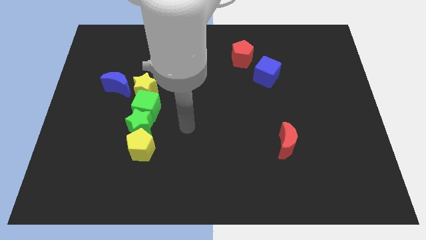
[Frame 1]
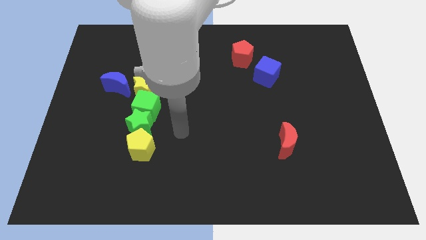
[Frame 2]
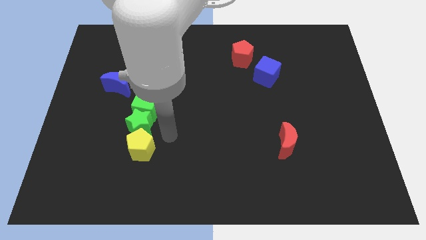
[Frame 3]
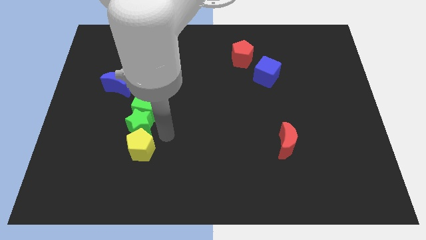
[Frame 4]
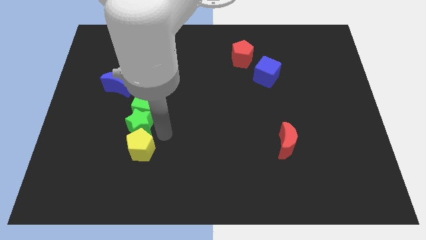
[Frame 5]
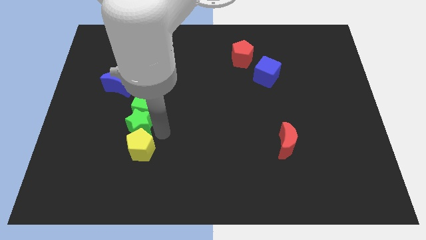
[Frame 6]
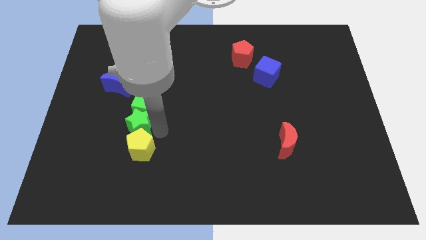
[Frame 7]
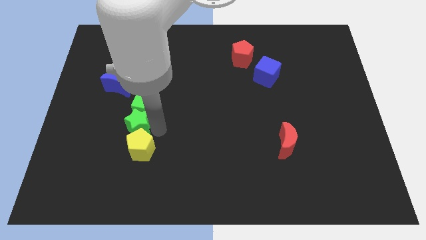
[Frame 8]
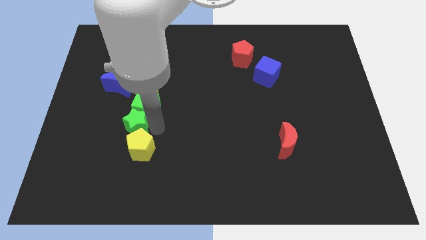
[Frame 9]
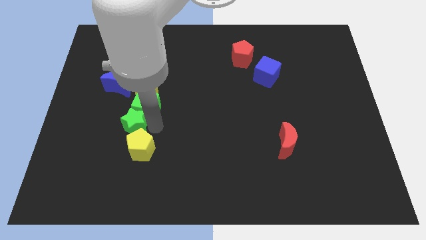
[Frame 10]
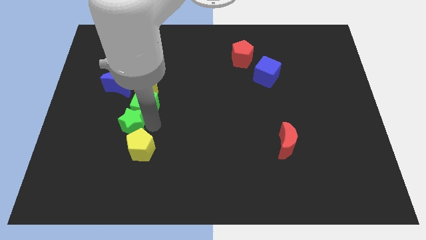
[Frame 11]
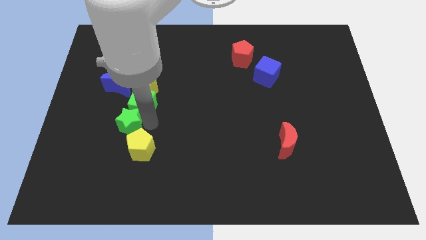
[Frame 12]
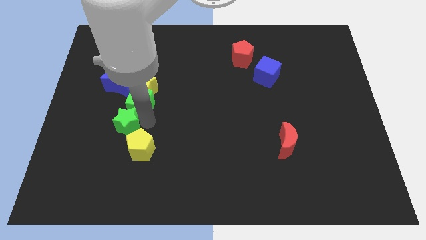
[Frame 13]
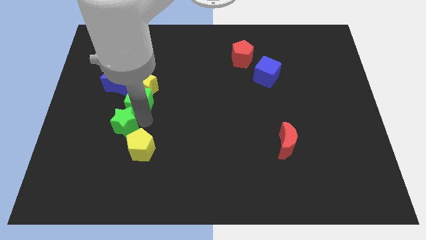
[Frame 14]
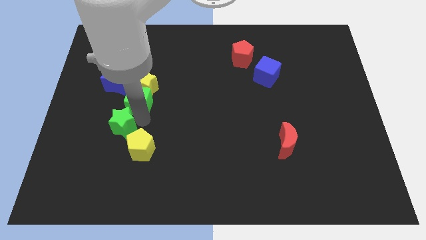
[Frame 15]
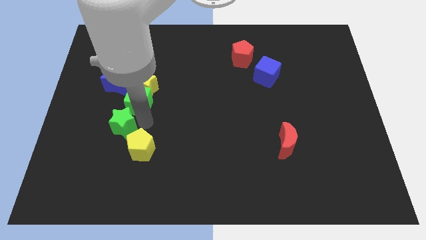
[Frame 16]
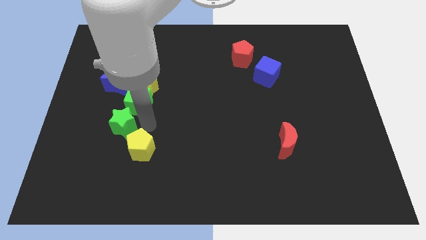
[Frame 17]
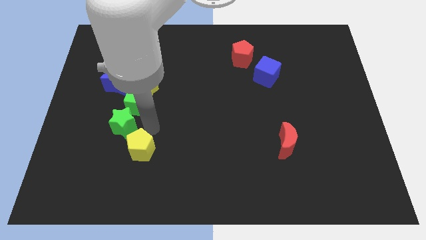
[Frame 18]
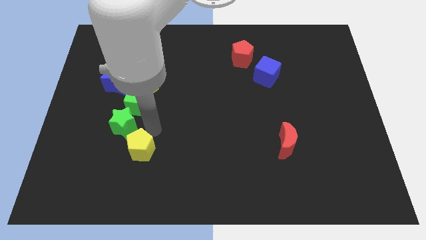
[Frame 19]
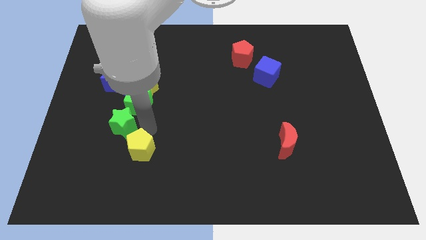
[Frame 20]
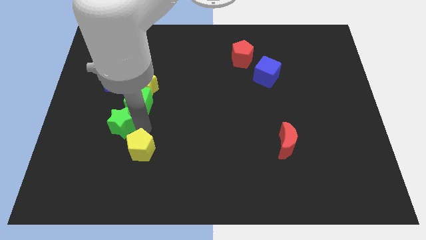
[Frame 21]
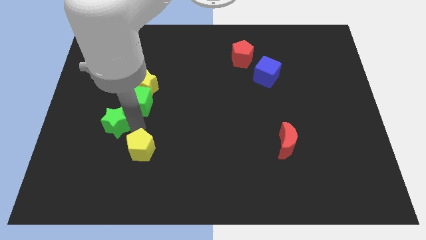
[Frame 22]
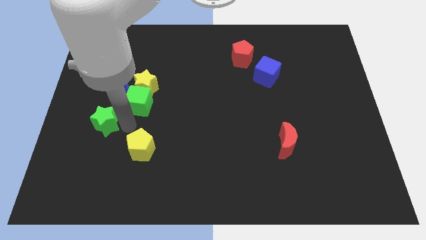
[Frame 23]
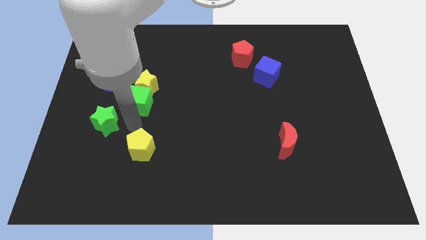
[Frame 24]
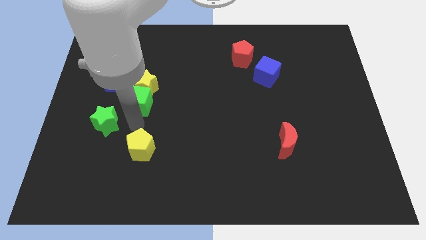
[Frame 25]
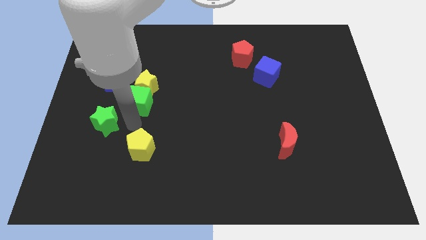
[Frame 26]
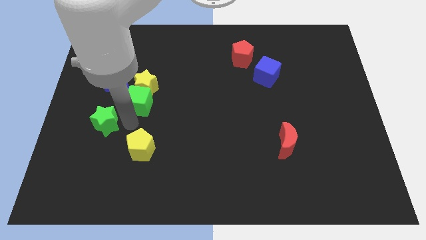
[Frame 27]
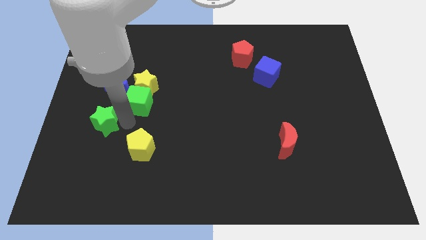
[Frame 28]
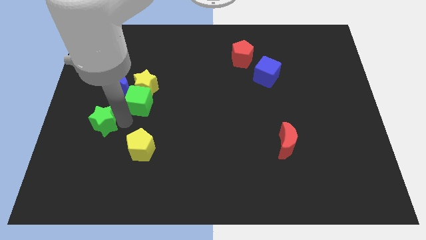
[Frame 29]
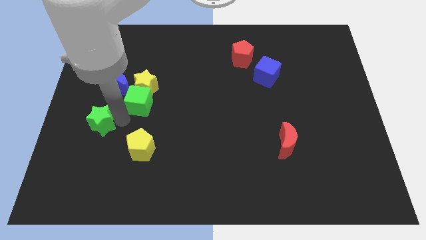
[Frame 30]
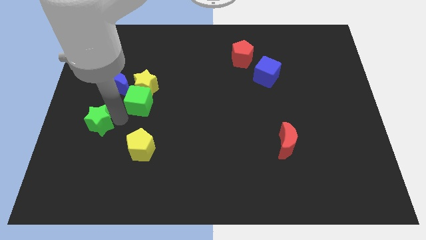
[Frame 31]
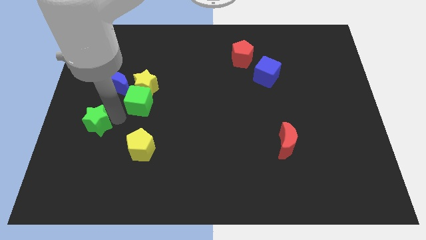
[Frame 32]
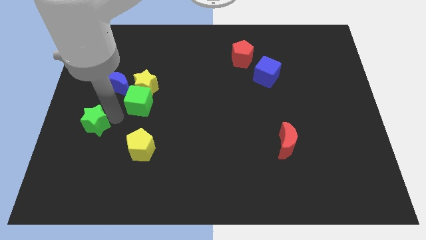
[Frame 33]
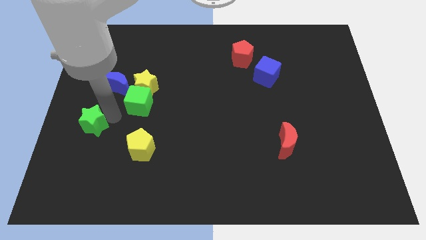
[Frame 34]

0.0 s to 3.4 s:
separate the green star from the green cube and yellow pentagon

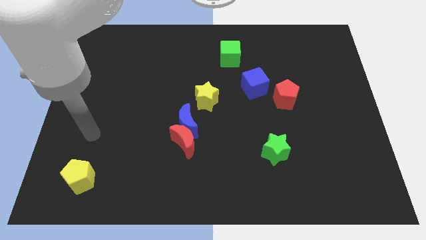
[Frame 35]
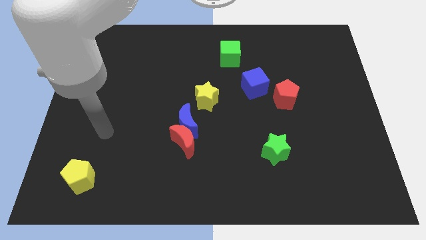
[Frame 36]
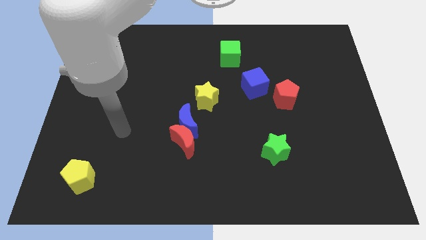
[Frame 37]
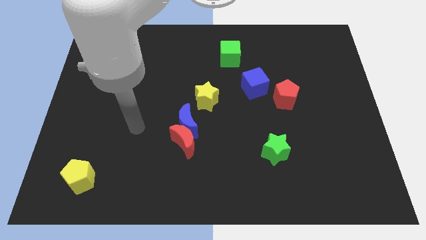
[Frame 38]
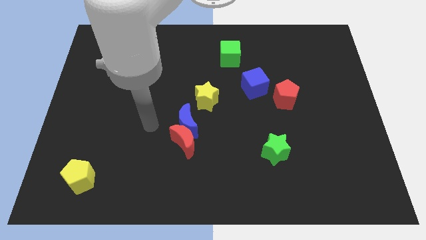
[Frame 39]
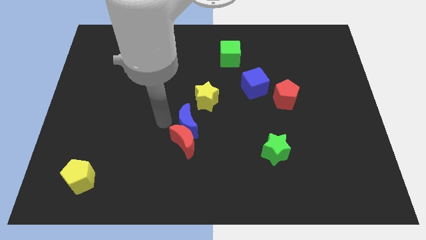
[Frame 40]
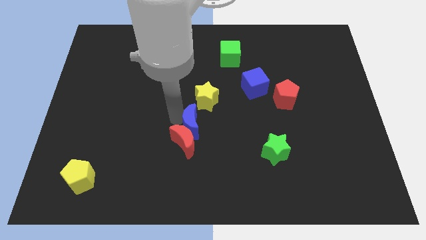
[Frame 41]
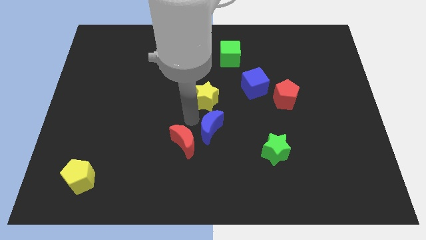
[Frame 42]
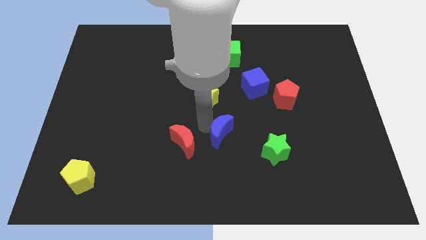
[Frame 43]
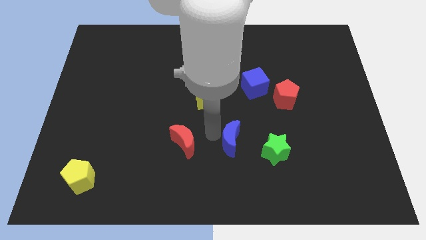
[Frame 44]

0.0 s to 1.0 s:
pull the red moon apart from the blue moon

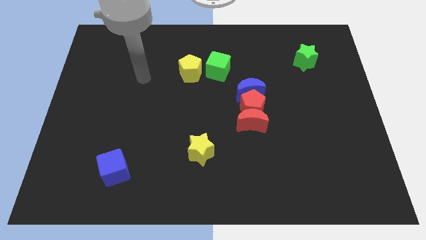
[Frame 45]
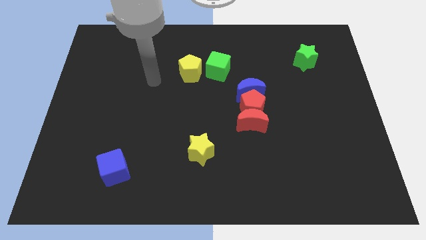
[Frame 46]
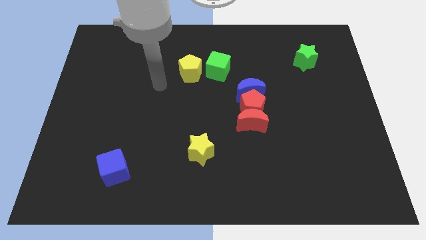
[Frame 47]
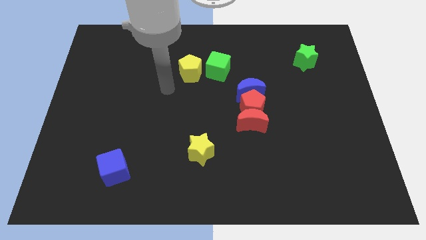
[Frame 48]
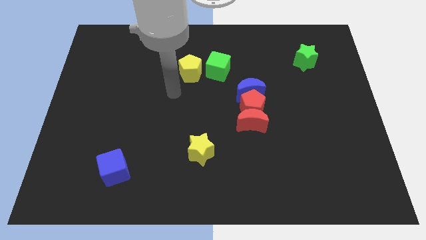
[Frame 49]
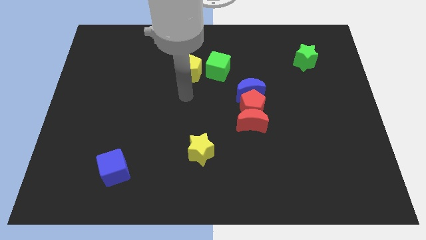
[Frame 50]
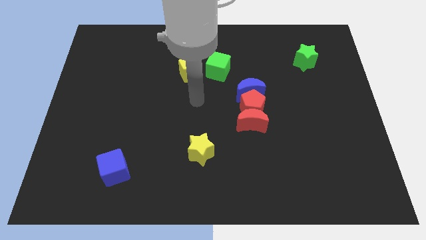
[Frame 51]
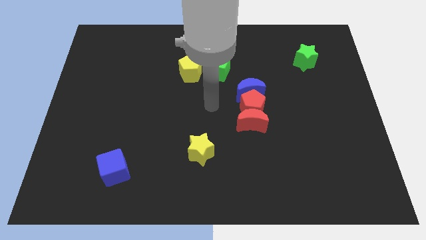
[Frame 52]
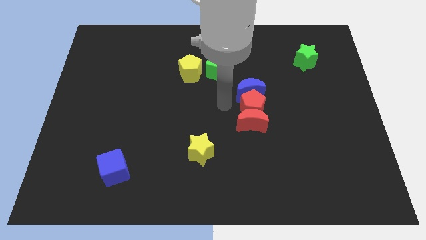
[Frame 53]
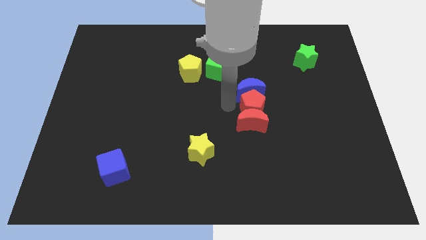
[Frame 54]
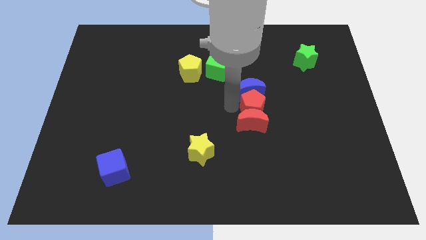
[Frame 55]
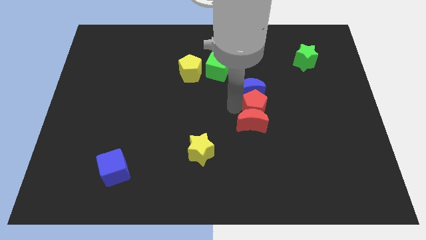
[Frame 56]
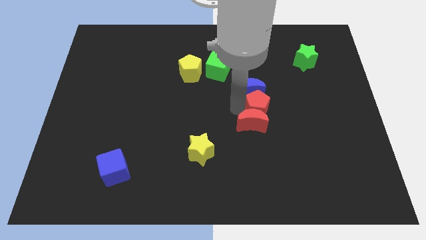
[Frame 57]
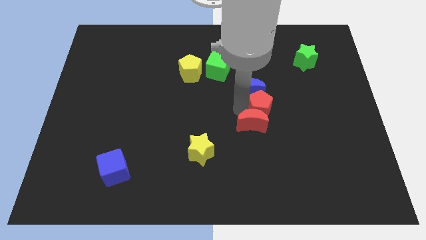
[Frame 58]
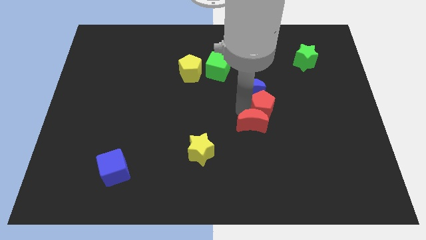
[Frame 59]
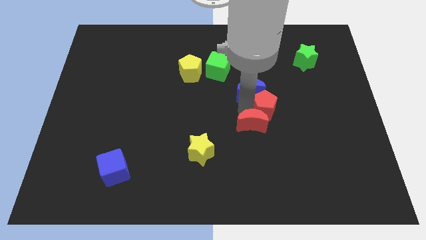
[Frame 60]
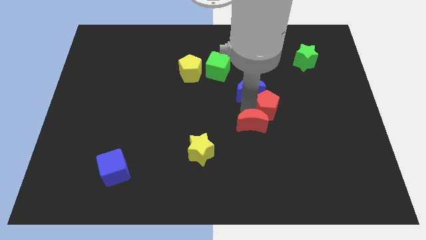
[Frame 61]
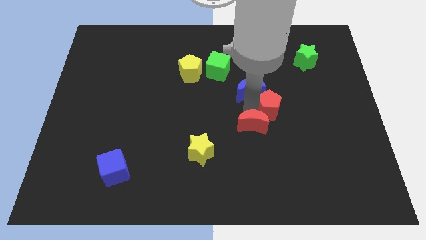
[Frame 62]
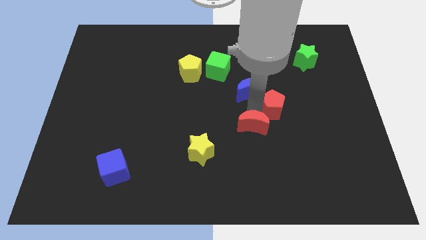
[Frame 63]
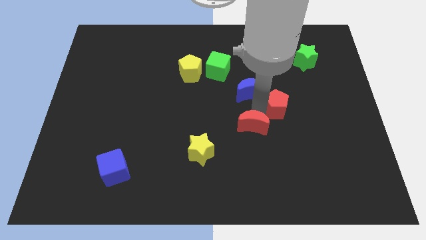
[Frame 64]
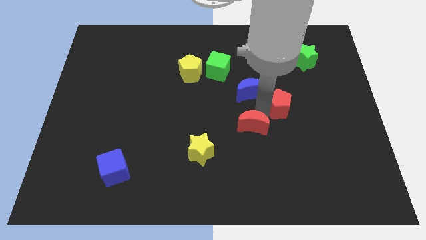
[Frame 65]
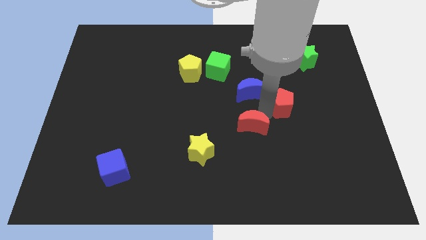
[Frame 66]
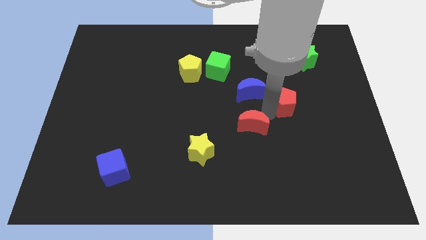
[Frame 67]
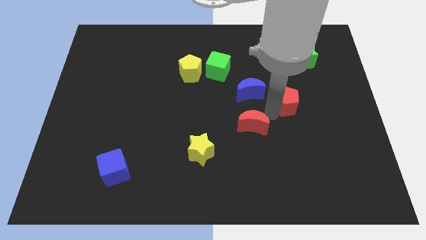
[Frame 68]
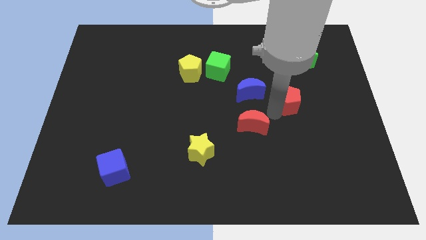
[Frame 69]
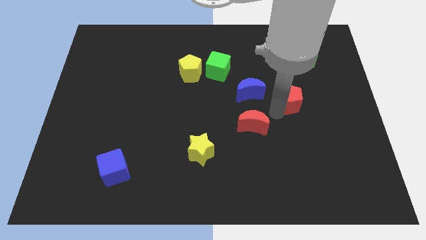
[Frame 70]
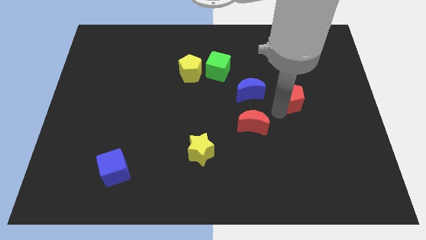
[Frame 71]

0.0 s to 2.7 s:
pull the red pentagon apart from the red moon and blue moon

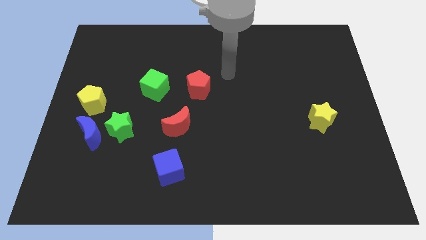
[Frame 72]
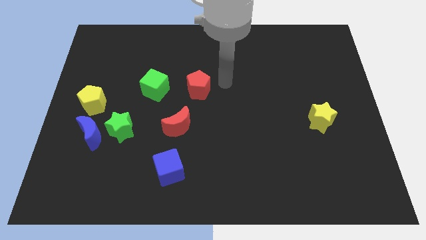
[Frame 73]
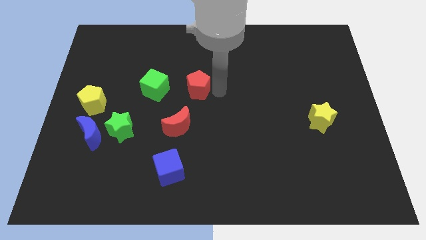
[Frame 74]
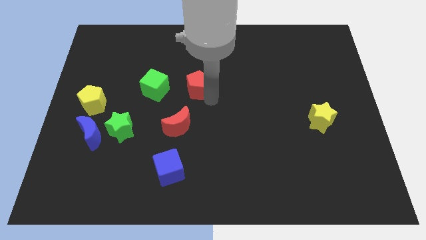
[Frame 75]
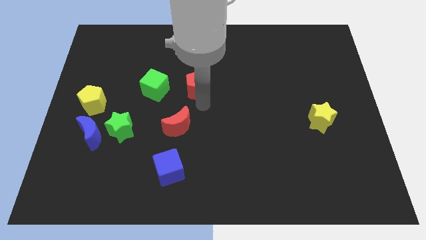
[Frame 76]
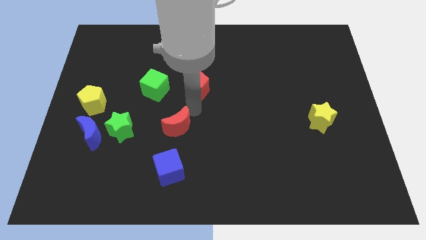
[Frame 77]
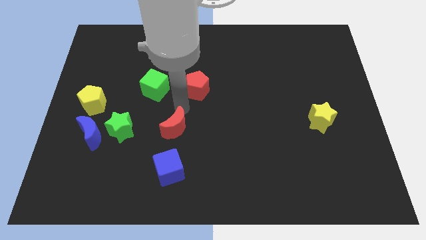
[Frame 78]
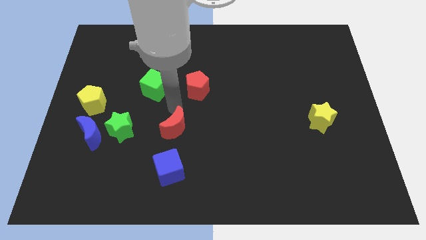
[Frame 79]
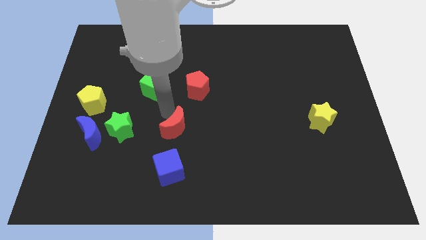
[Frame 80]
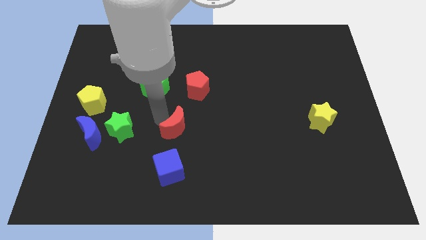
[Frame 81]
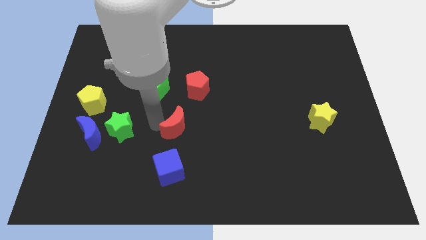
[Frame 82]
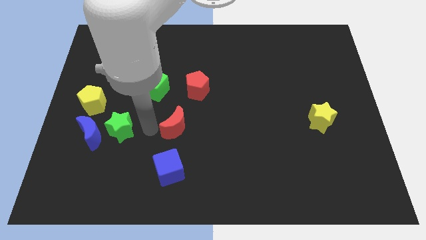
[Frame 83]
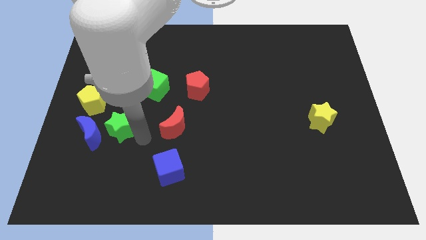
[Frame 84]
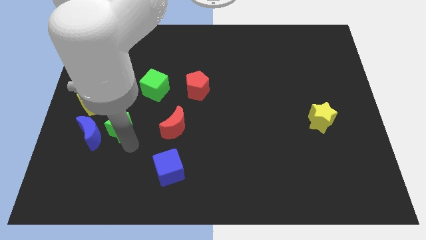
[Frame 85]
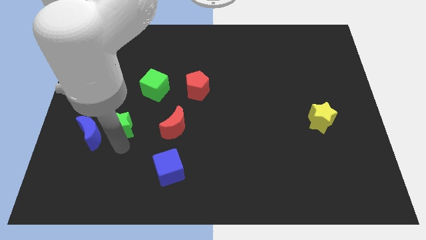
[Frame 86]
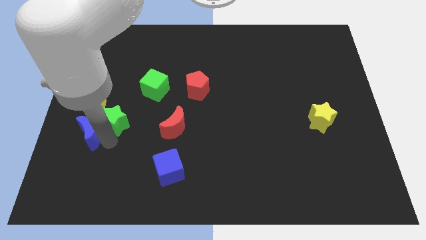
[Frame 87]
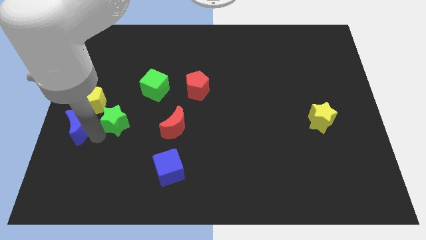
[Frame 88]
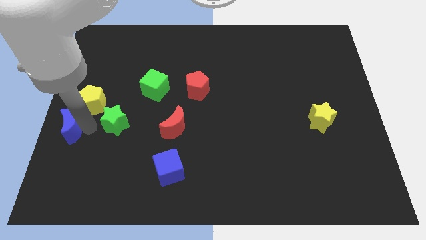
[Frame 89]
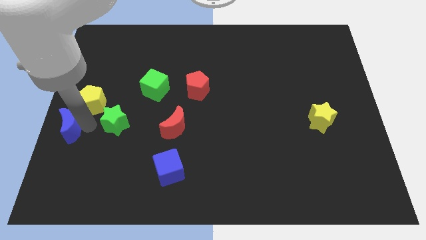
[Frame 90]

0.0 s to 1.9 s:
separate the green star from the blue moon

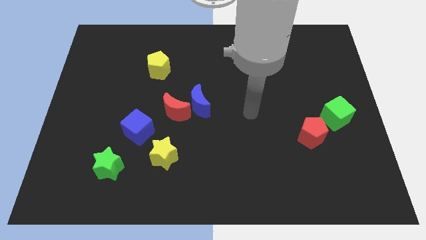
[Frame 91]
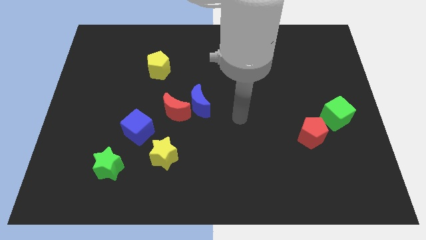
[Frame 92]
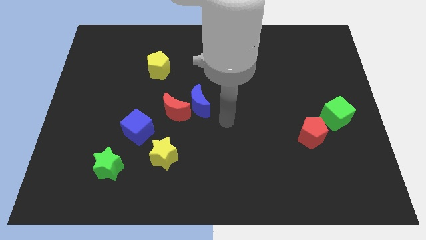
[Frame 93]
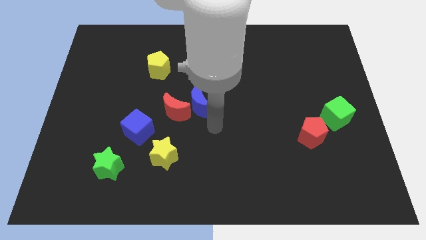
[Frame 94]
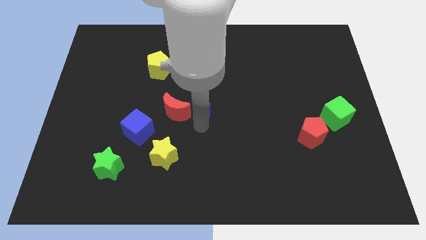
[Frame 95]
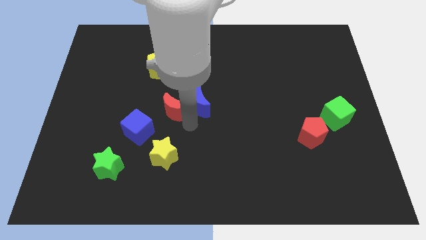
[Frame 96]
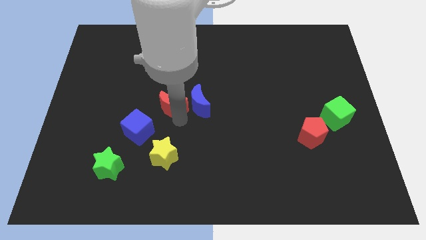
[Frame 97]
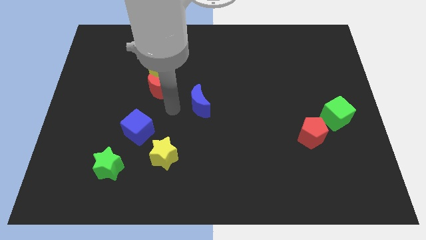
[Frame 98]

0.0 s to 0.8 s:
separate the blue moon from the red moon
